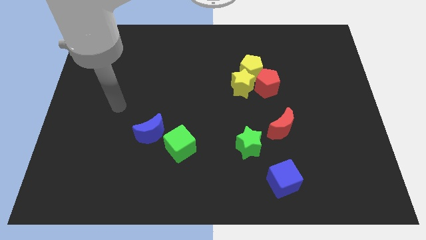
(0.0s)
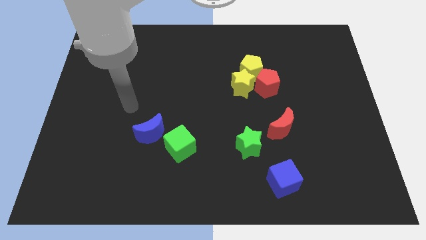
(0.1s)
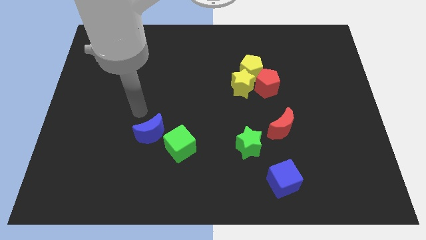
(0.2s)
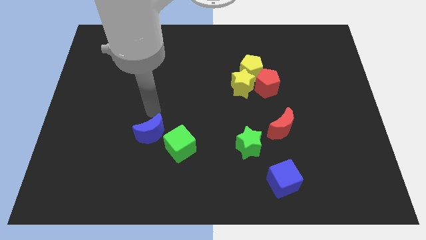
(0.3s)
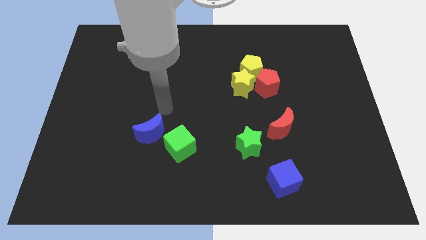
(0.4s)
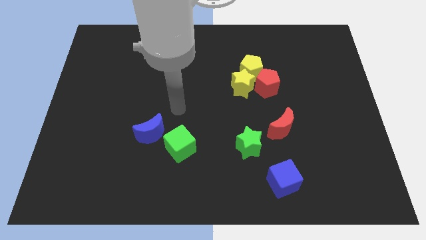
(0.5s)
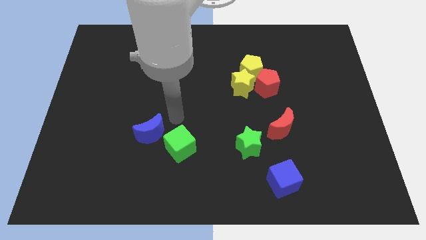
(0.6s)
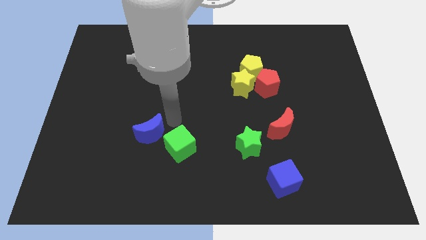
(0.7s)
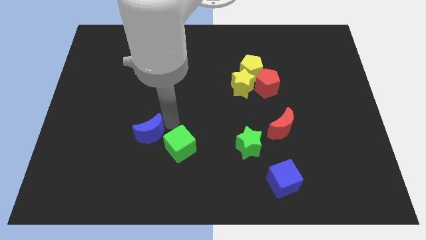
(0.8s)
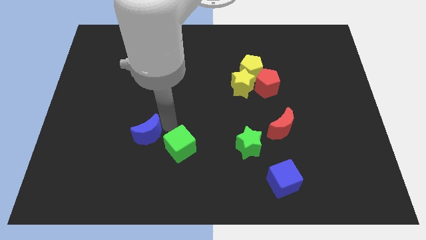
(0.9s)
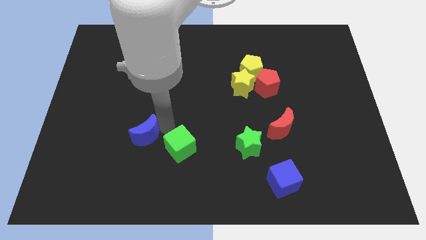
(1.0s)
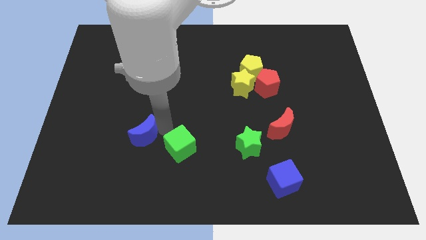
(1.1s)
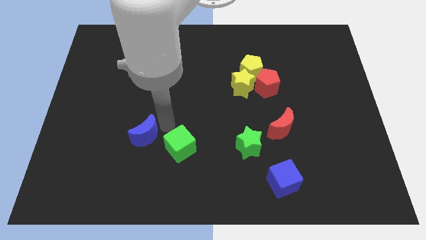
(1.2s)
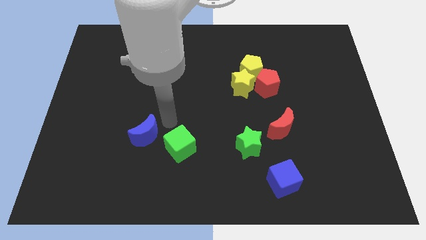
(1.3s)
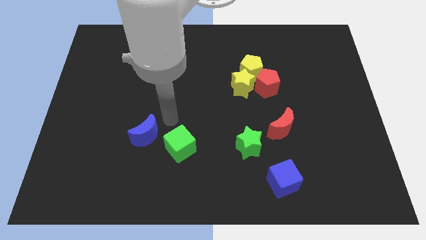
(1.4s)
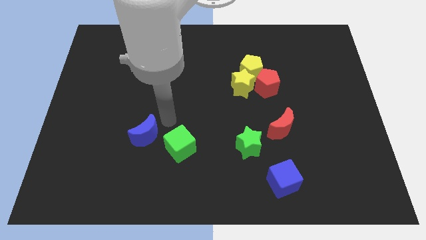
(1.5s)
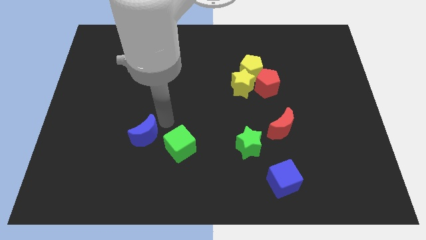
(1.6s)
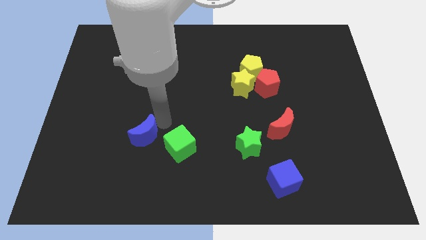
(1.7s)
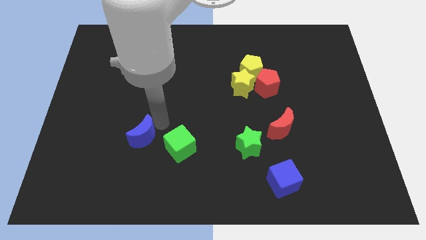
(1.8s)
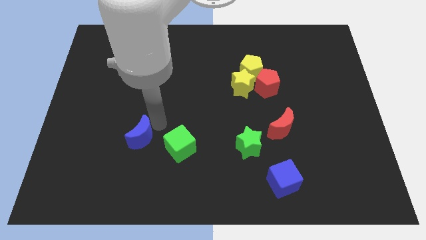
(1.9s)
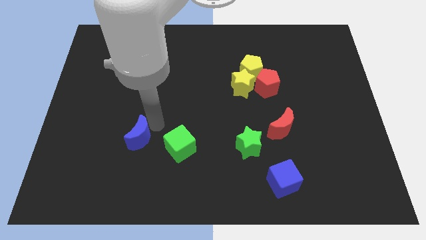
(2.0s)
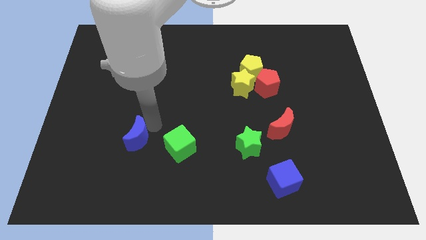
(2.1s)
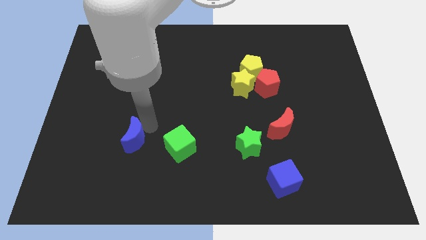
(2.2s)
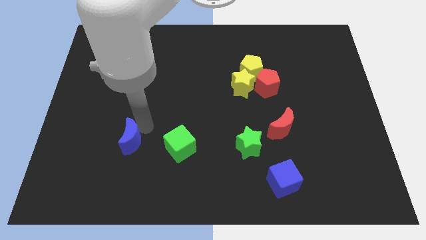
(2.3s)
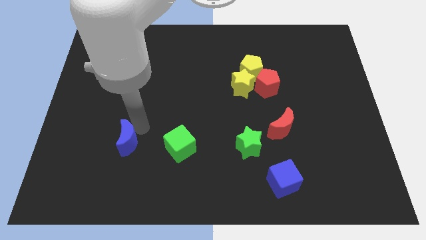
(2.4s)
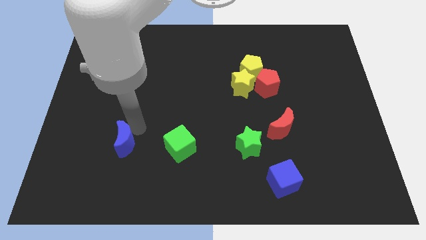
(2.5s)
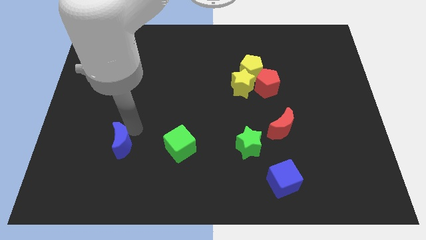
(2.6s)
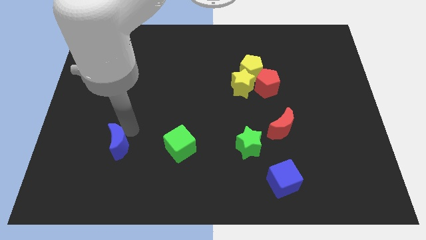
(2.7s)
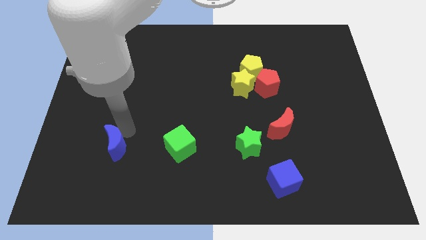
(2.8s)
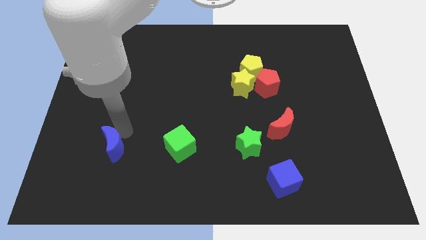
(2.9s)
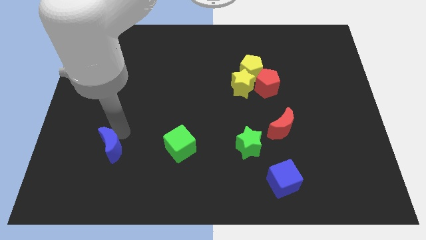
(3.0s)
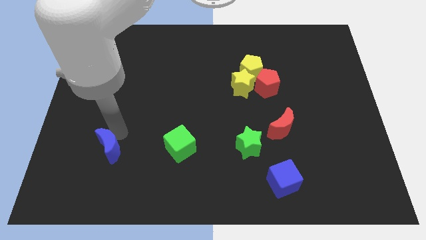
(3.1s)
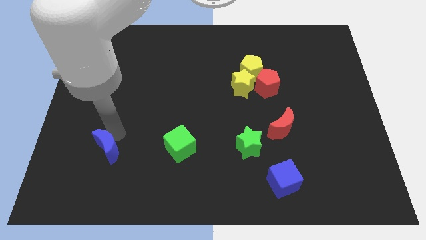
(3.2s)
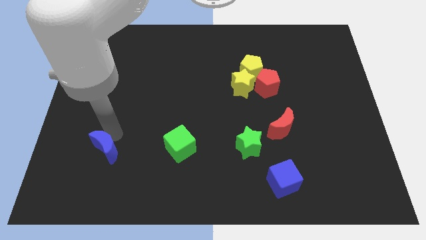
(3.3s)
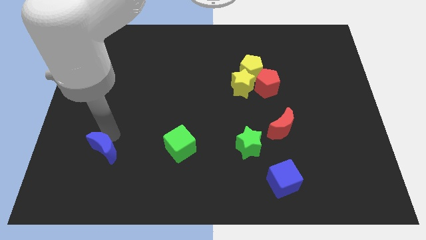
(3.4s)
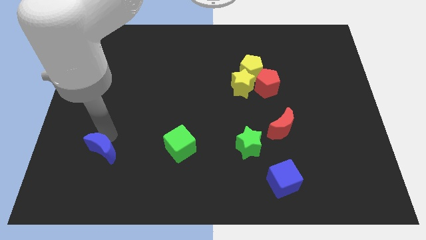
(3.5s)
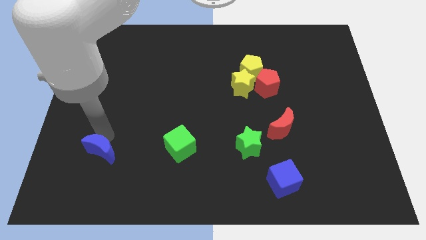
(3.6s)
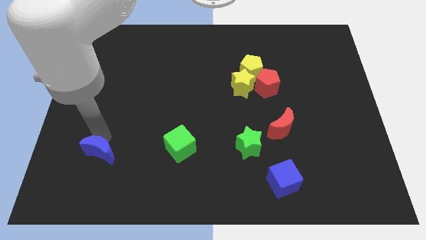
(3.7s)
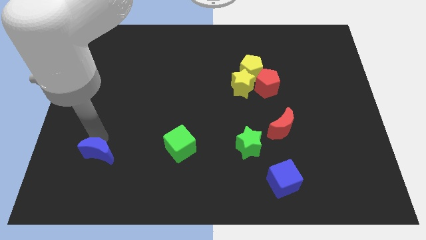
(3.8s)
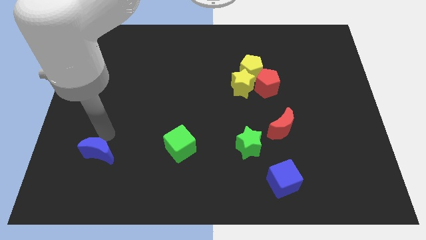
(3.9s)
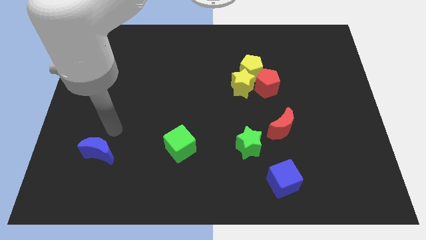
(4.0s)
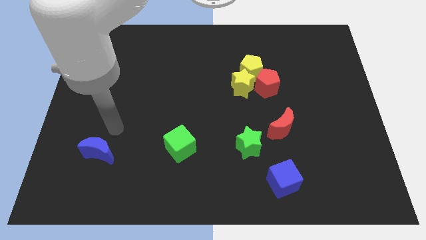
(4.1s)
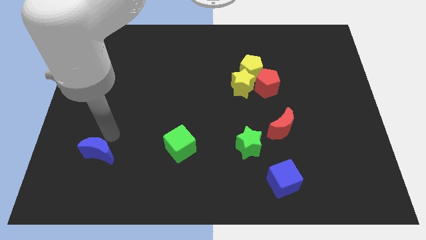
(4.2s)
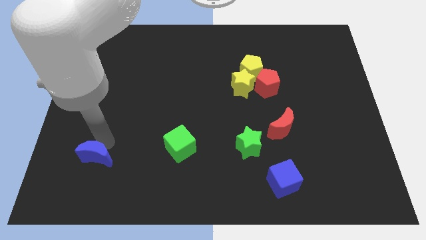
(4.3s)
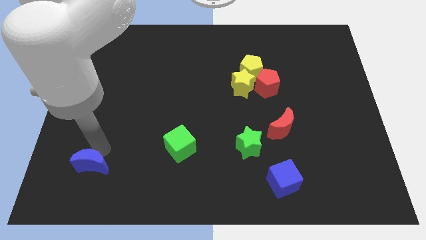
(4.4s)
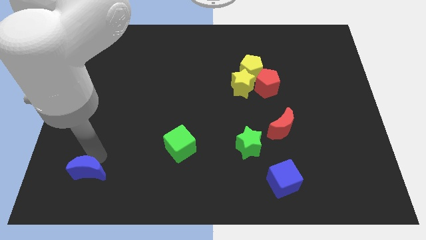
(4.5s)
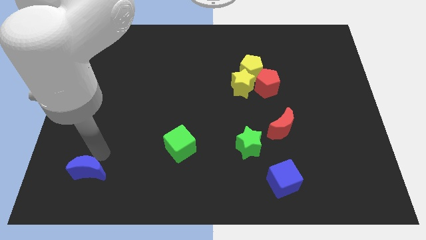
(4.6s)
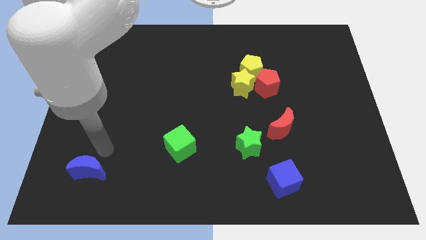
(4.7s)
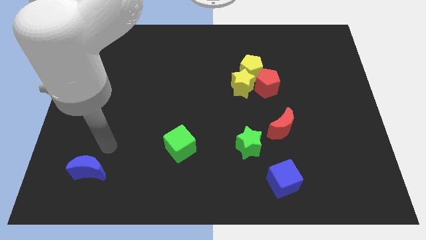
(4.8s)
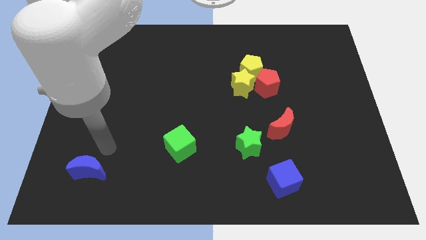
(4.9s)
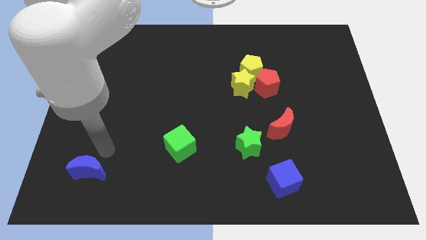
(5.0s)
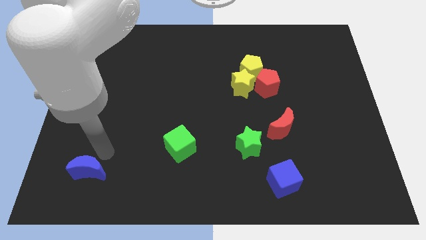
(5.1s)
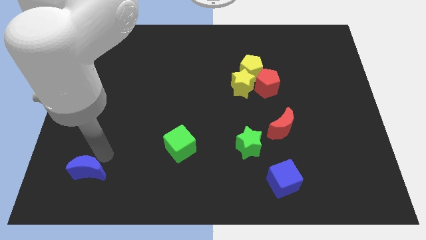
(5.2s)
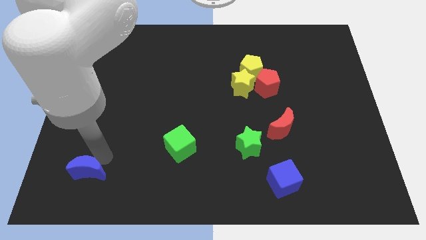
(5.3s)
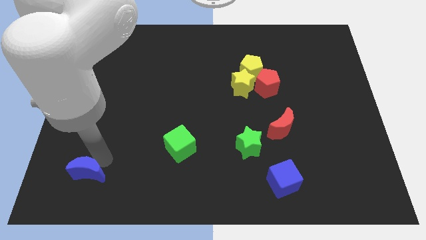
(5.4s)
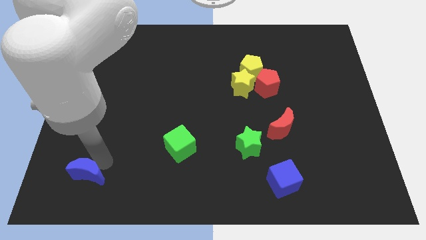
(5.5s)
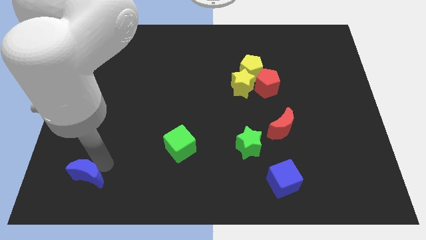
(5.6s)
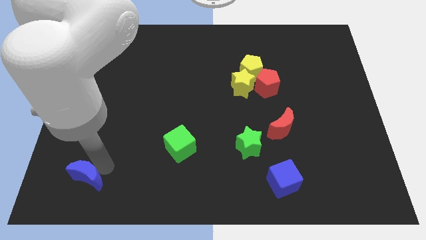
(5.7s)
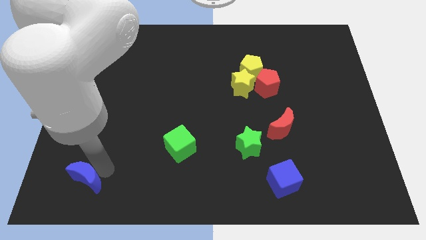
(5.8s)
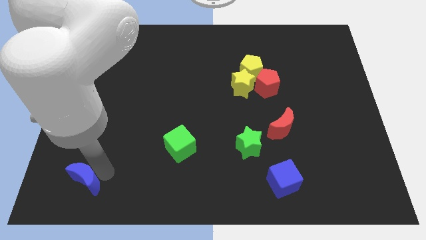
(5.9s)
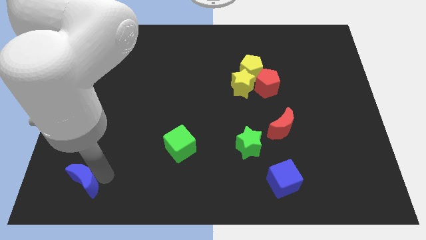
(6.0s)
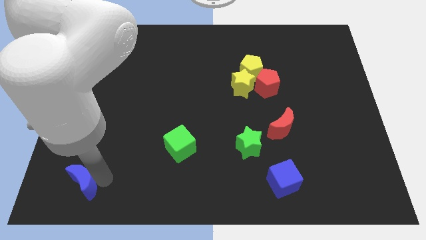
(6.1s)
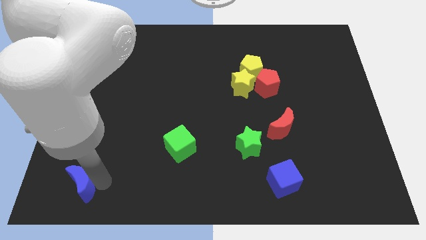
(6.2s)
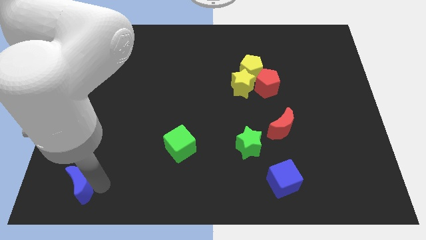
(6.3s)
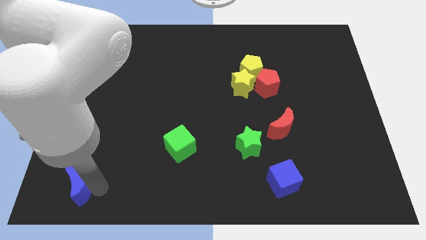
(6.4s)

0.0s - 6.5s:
push the blue moon to the bottom left

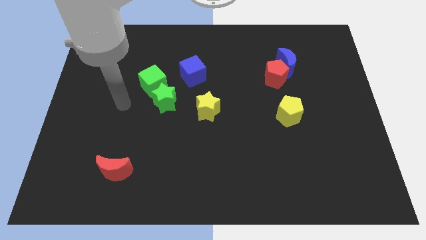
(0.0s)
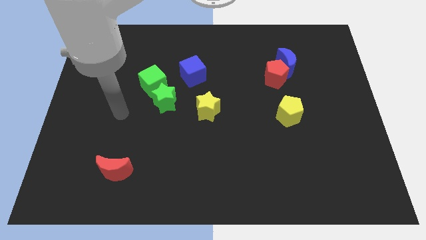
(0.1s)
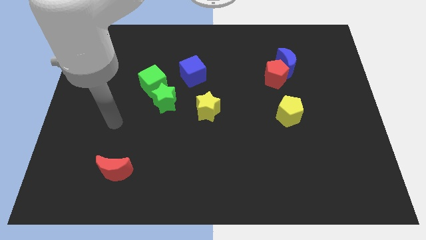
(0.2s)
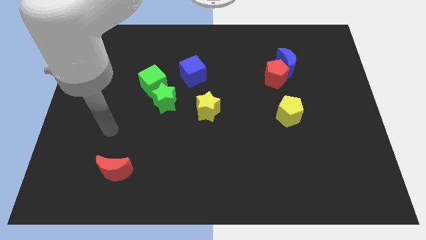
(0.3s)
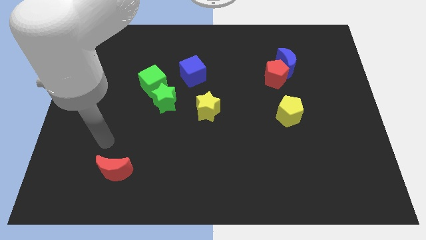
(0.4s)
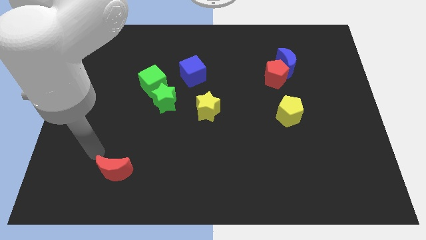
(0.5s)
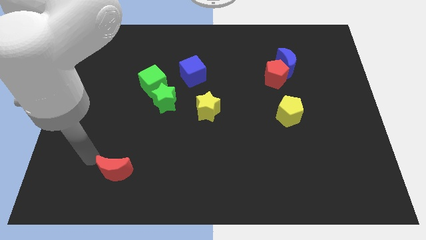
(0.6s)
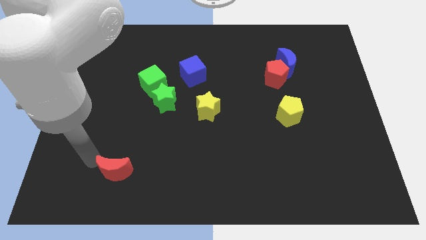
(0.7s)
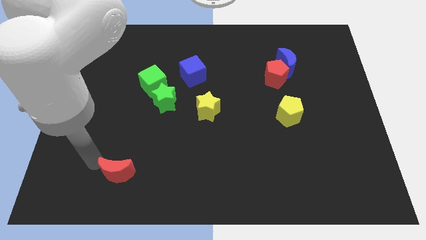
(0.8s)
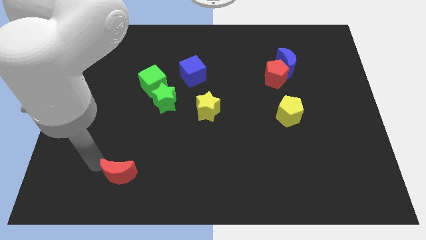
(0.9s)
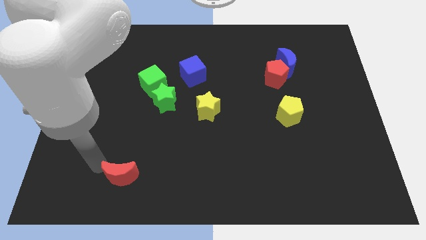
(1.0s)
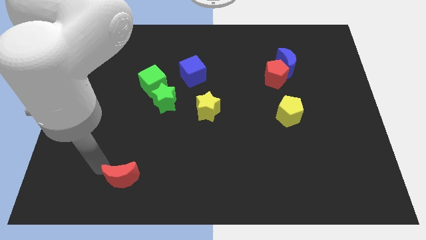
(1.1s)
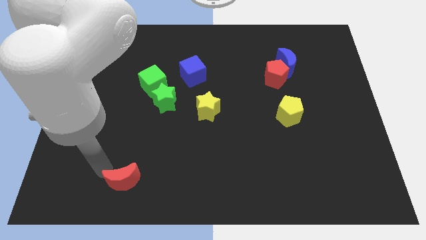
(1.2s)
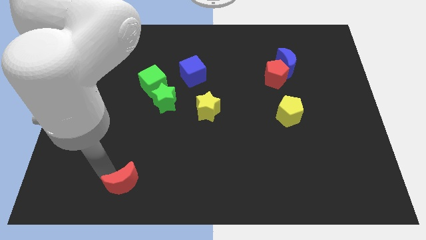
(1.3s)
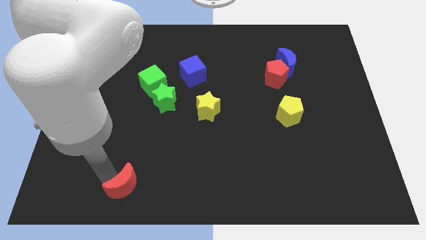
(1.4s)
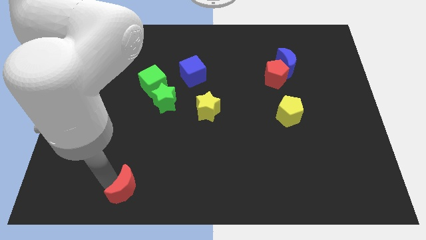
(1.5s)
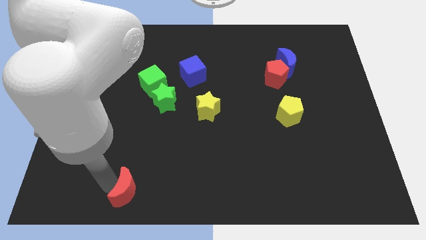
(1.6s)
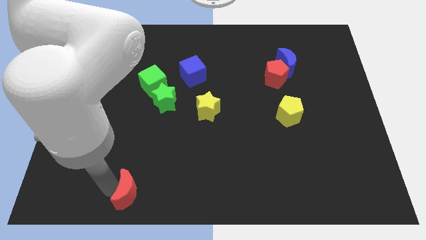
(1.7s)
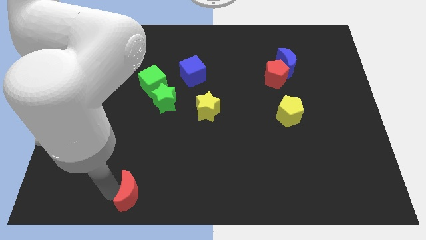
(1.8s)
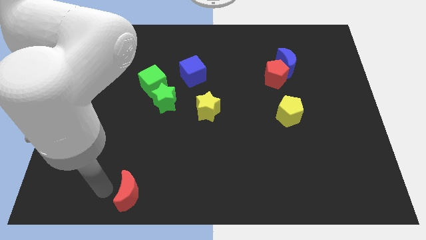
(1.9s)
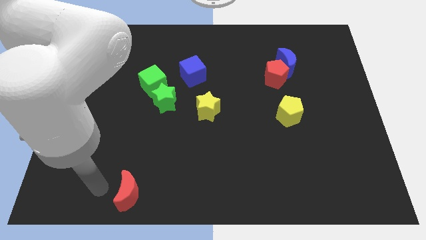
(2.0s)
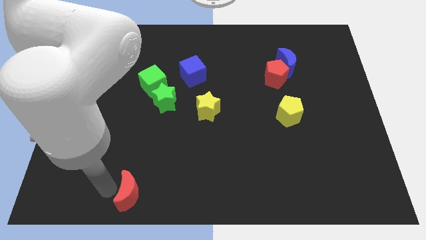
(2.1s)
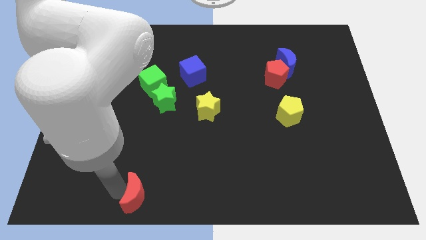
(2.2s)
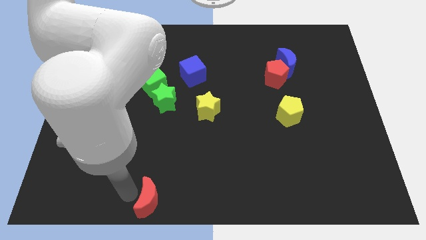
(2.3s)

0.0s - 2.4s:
push the red moon to the bottom side
